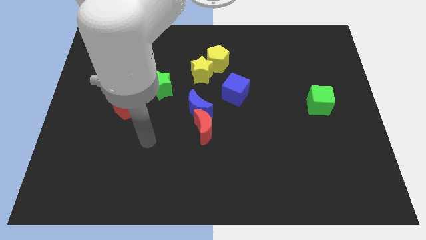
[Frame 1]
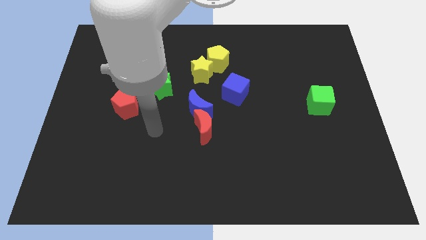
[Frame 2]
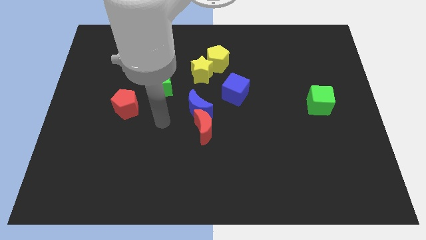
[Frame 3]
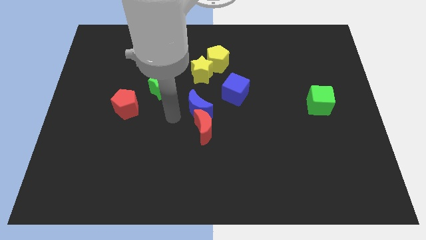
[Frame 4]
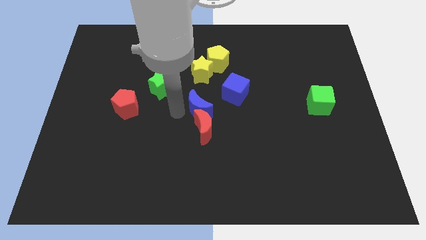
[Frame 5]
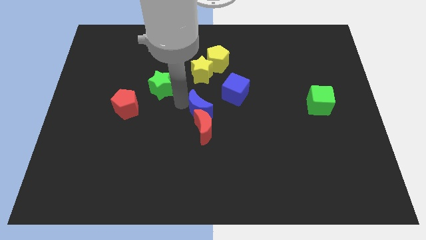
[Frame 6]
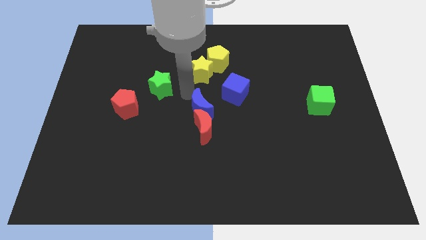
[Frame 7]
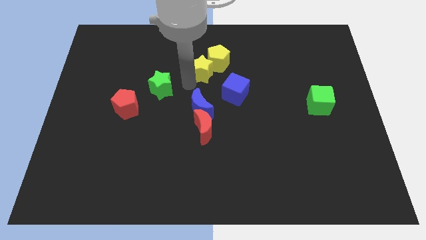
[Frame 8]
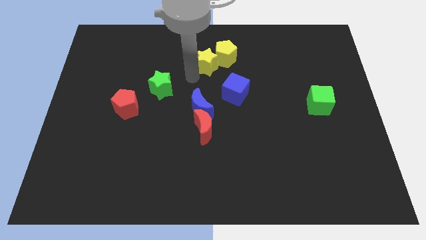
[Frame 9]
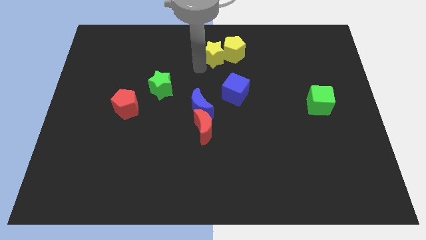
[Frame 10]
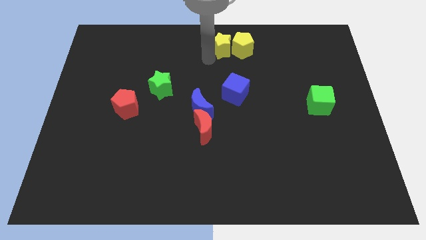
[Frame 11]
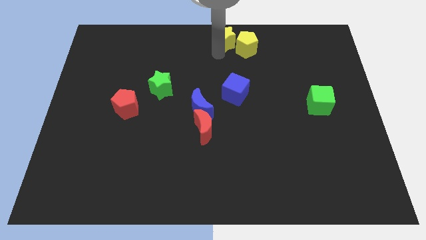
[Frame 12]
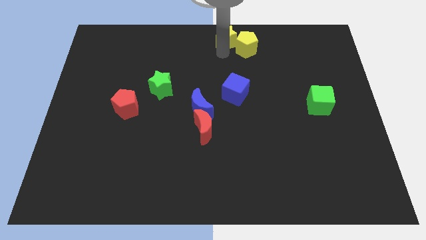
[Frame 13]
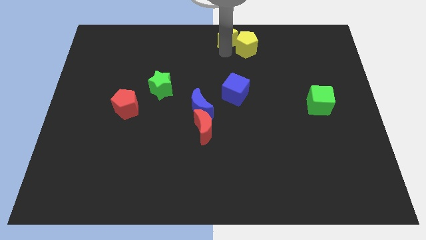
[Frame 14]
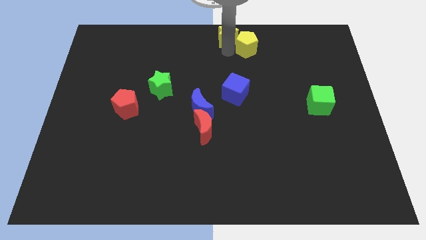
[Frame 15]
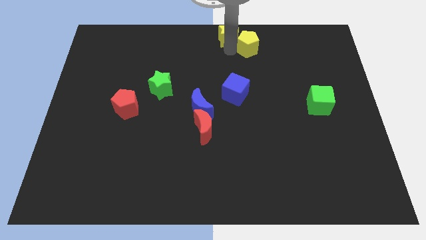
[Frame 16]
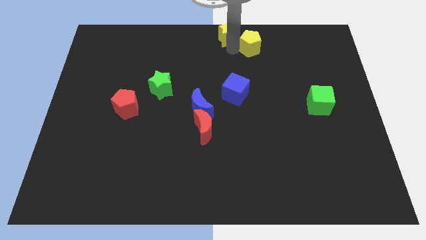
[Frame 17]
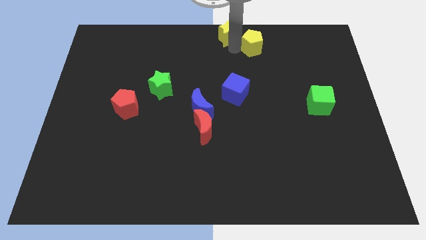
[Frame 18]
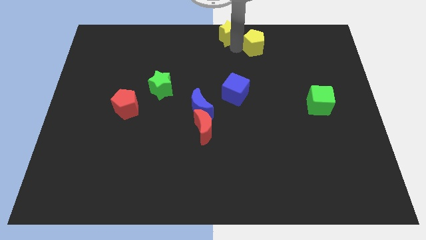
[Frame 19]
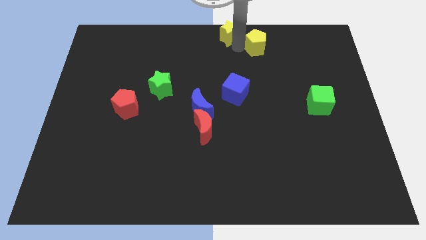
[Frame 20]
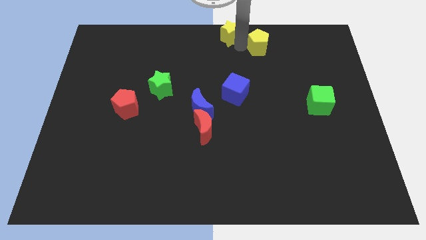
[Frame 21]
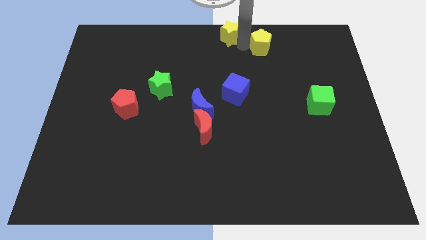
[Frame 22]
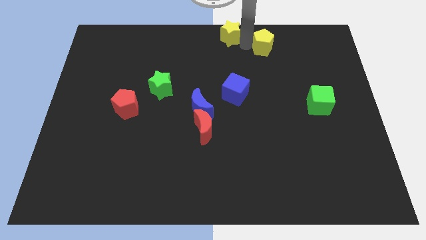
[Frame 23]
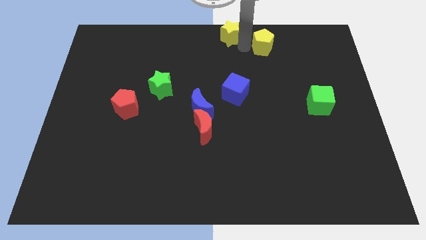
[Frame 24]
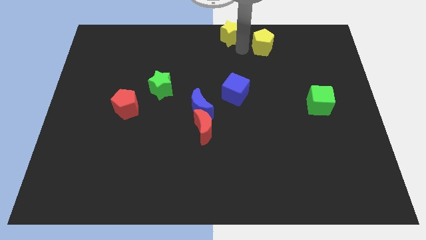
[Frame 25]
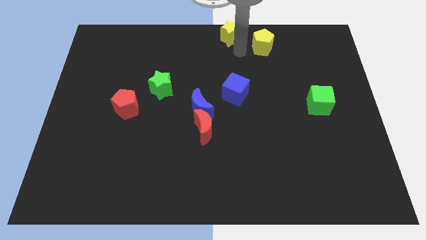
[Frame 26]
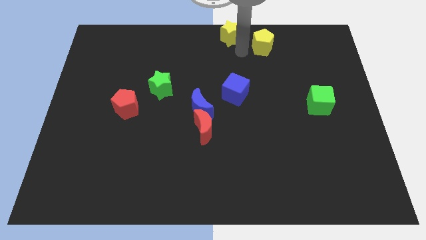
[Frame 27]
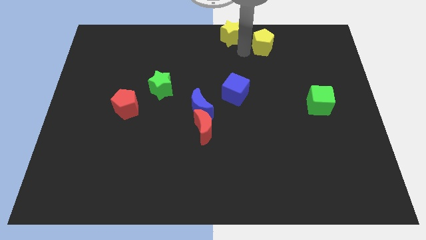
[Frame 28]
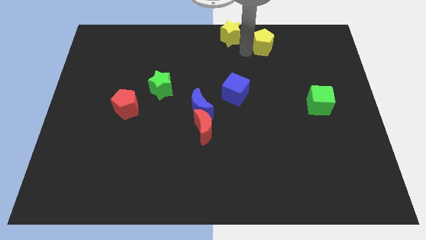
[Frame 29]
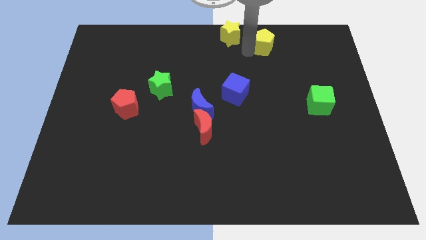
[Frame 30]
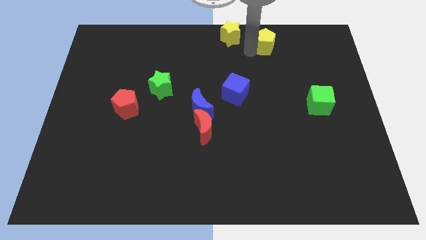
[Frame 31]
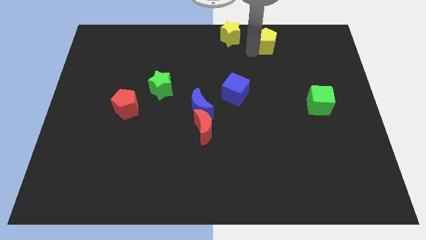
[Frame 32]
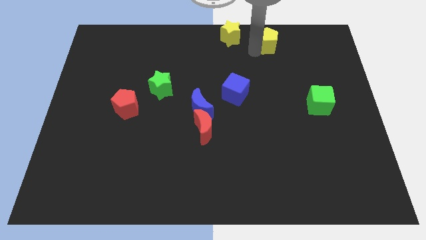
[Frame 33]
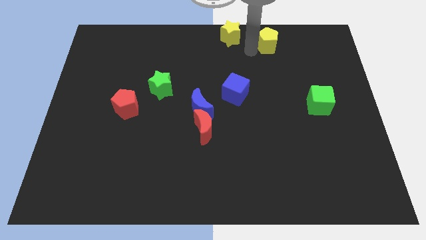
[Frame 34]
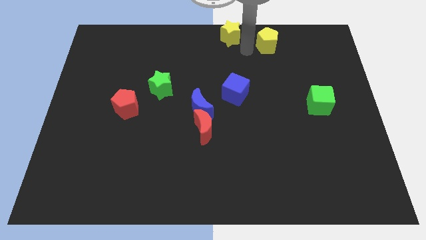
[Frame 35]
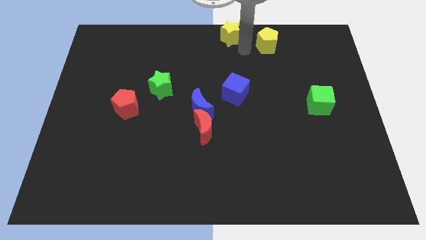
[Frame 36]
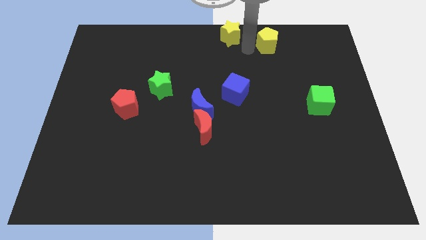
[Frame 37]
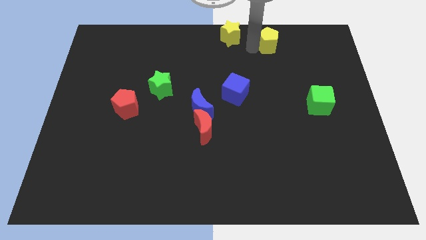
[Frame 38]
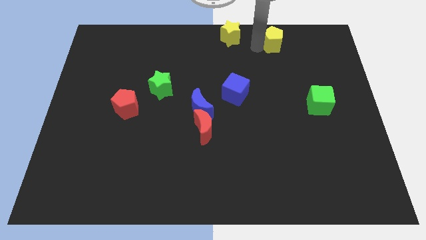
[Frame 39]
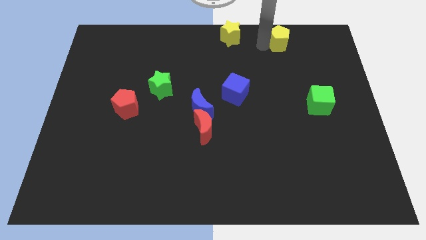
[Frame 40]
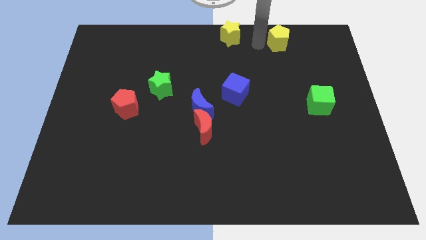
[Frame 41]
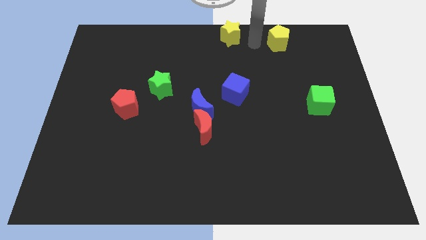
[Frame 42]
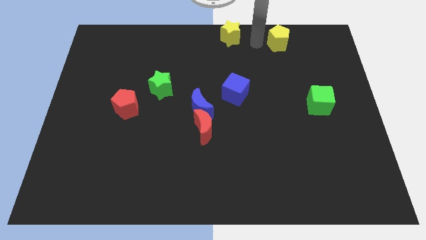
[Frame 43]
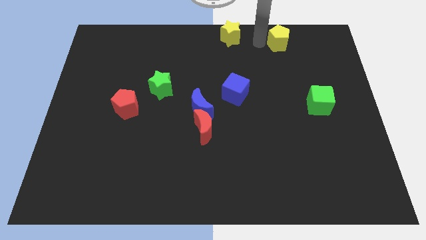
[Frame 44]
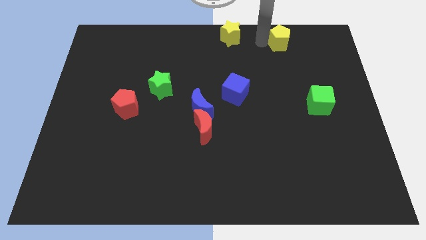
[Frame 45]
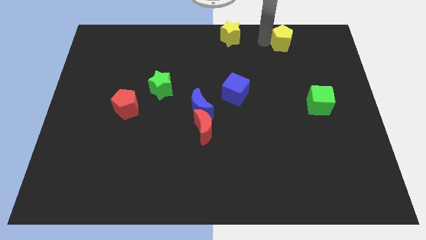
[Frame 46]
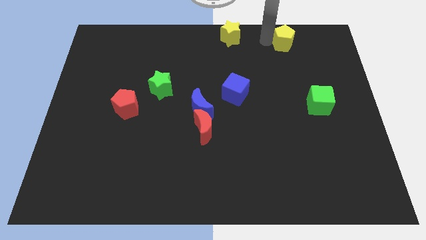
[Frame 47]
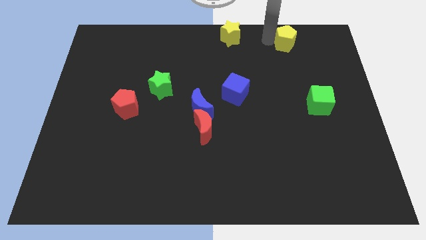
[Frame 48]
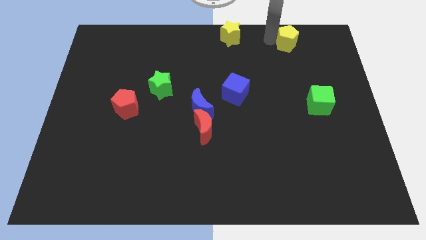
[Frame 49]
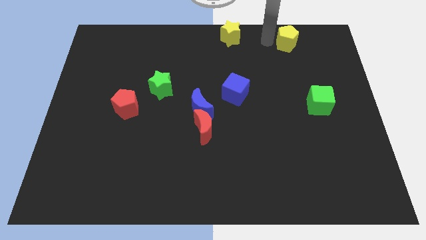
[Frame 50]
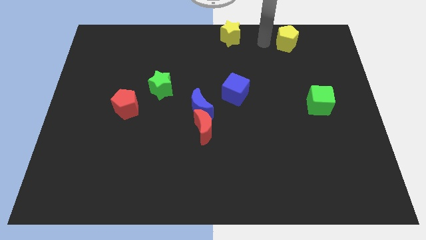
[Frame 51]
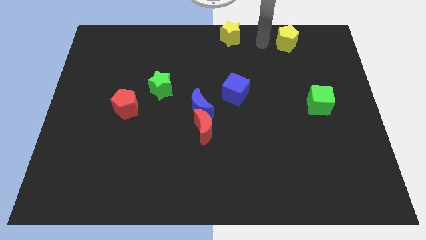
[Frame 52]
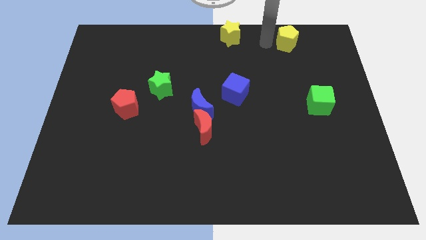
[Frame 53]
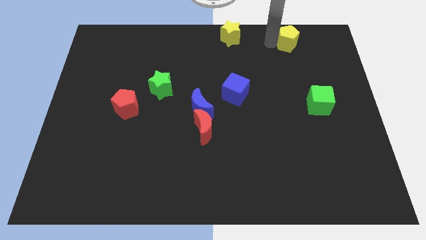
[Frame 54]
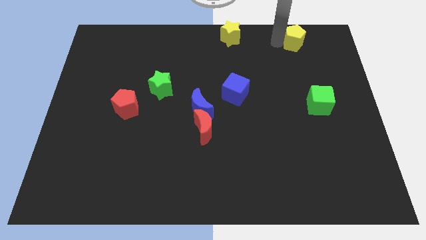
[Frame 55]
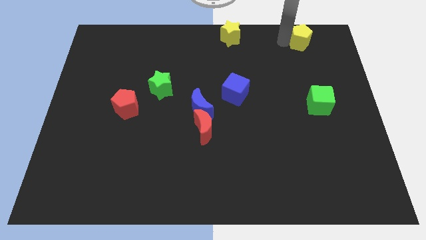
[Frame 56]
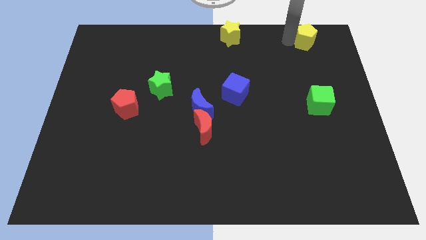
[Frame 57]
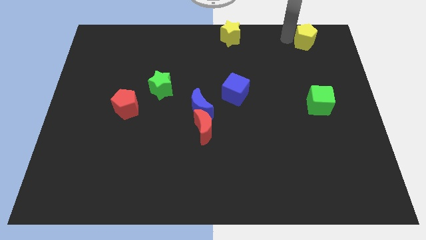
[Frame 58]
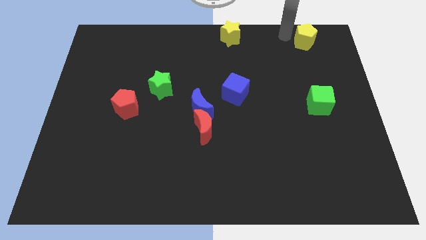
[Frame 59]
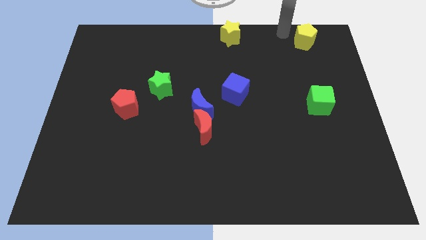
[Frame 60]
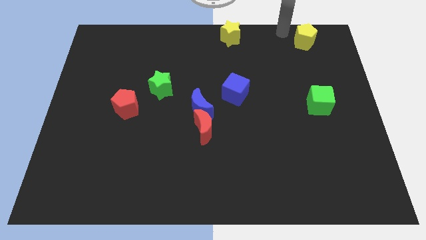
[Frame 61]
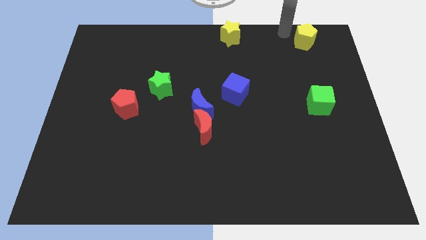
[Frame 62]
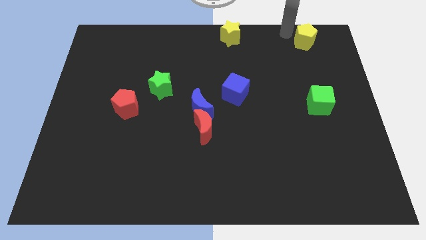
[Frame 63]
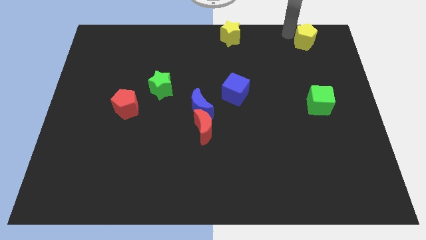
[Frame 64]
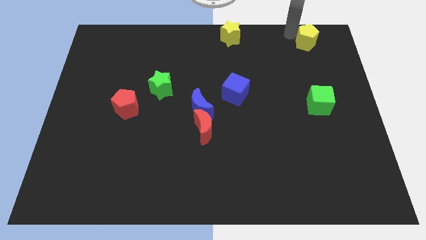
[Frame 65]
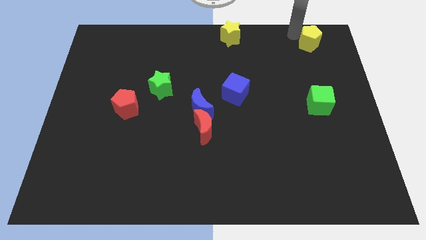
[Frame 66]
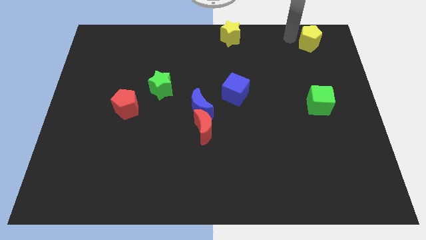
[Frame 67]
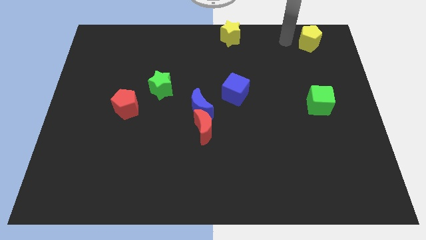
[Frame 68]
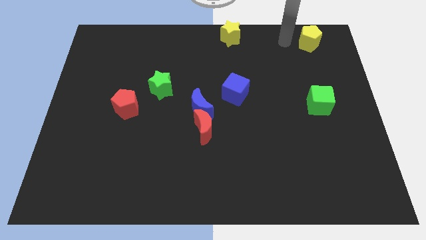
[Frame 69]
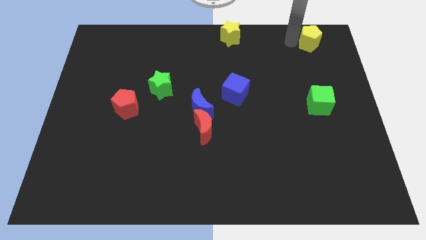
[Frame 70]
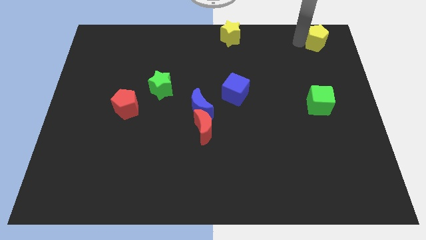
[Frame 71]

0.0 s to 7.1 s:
push the yellow pentagon to the upper right corner
